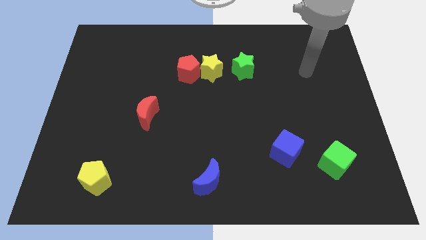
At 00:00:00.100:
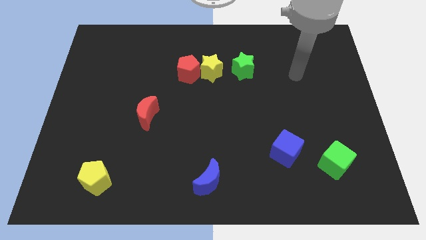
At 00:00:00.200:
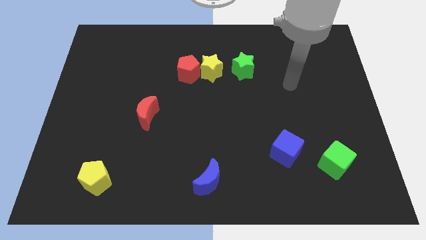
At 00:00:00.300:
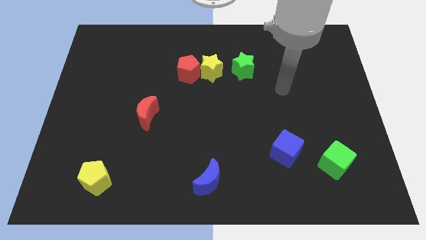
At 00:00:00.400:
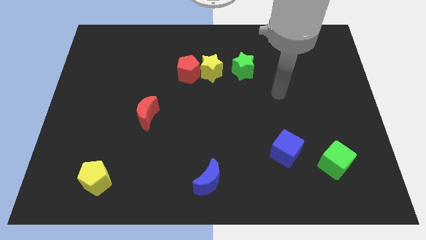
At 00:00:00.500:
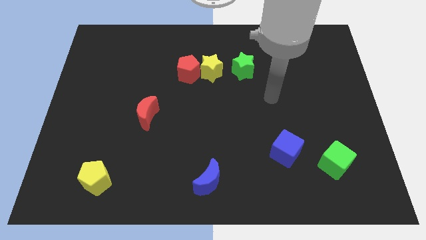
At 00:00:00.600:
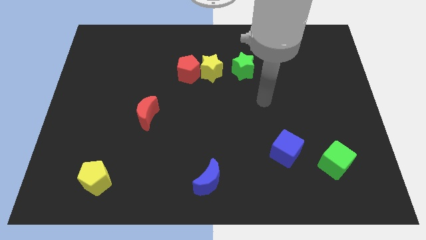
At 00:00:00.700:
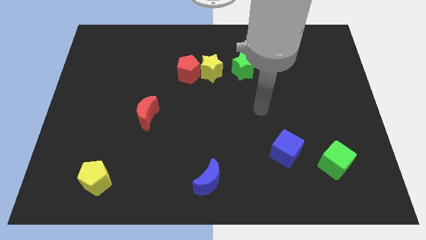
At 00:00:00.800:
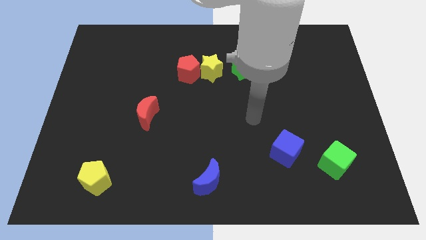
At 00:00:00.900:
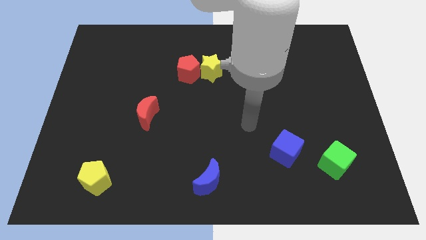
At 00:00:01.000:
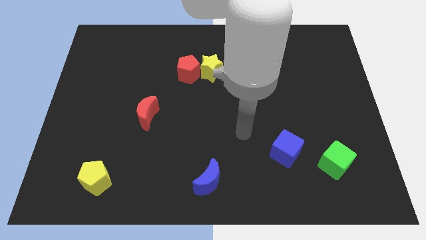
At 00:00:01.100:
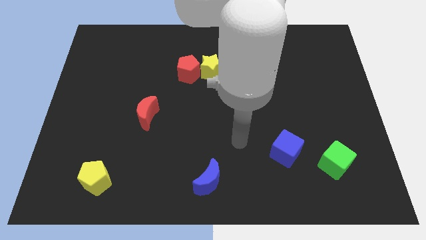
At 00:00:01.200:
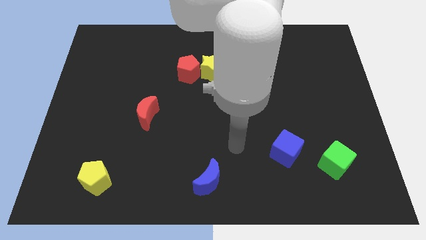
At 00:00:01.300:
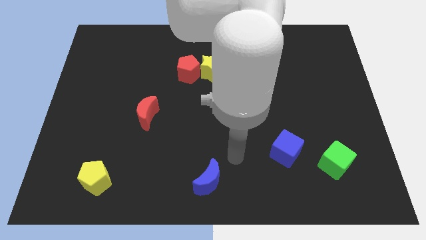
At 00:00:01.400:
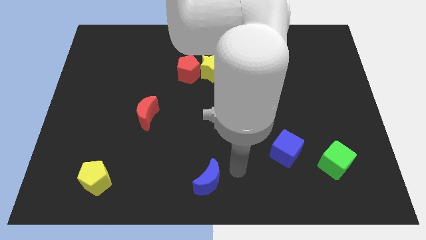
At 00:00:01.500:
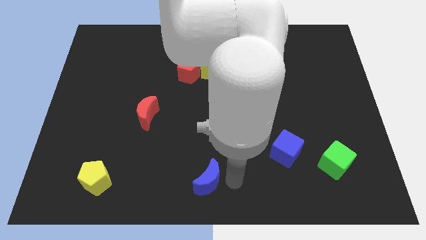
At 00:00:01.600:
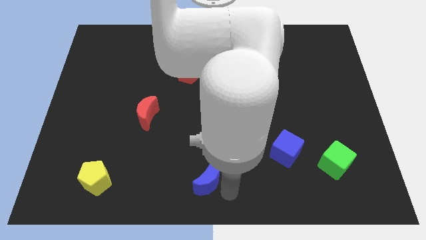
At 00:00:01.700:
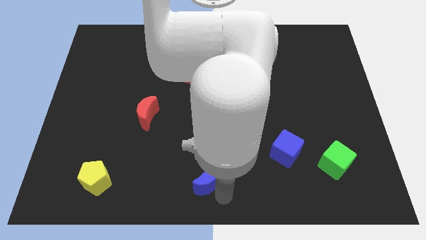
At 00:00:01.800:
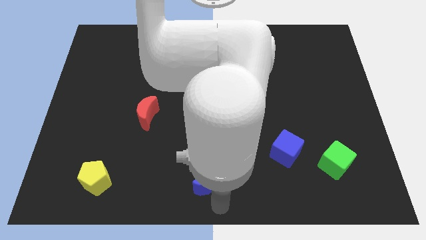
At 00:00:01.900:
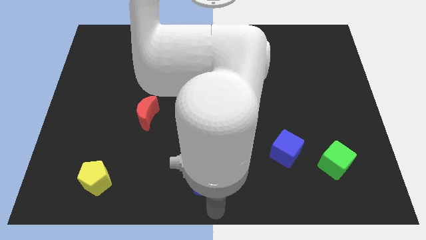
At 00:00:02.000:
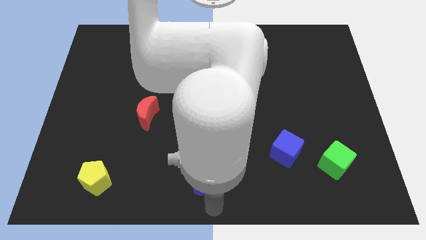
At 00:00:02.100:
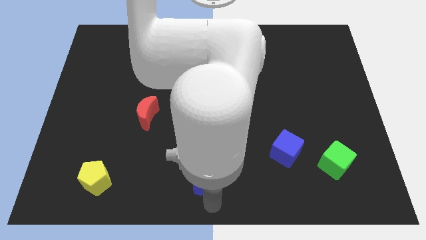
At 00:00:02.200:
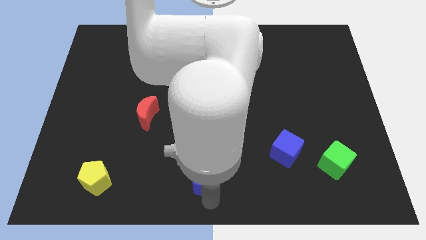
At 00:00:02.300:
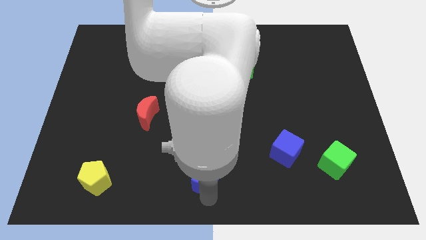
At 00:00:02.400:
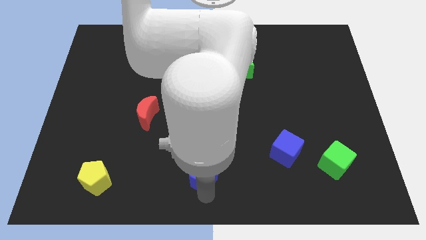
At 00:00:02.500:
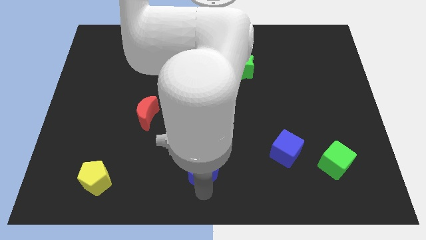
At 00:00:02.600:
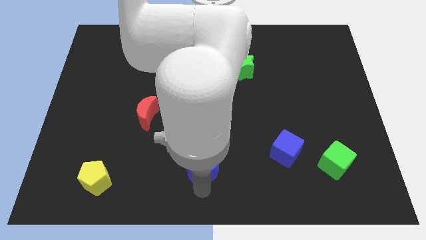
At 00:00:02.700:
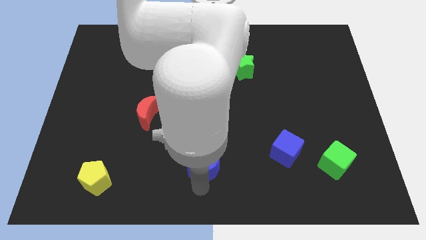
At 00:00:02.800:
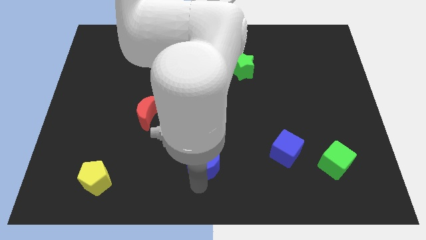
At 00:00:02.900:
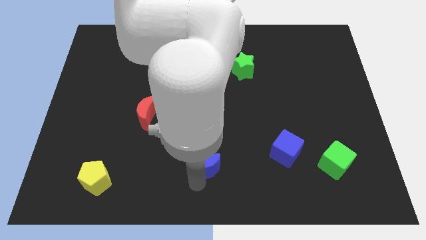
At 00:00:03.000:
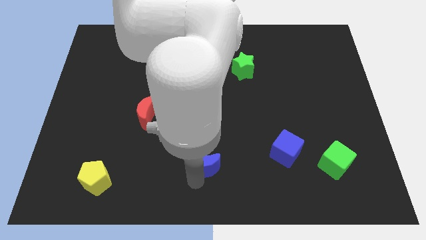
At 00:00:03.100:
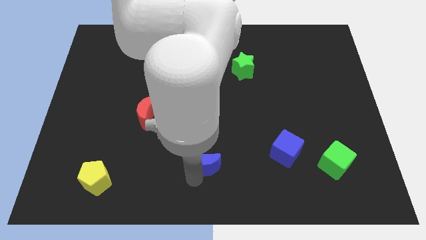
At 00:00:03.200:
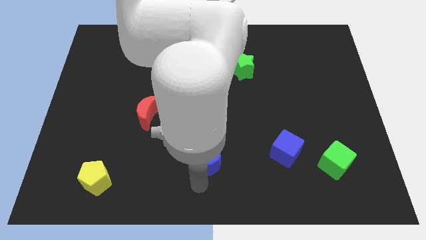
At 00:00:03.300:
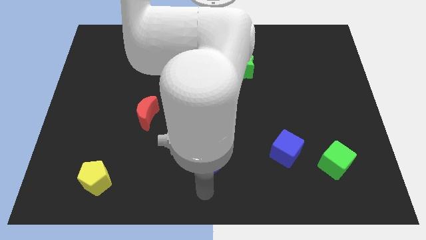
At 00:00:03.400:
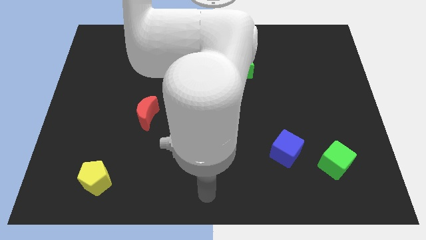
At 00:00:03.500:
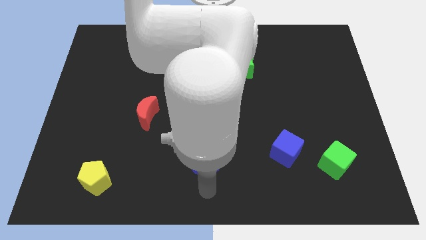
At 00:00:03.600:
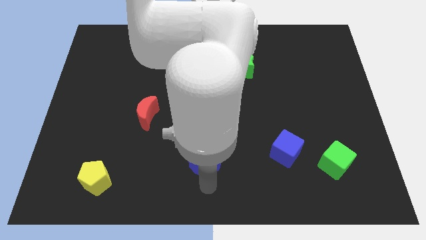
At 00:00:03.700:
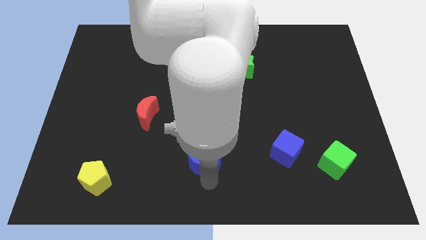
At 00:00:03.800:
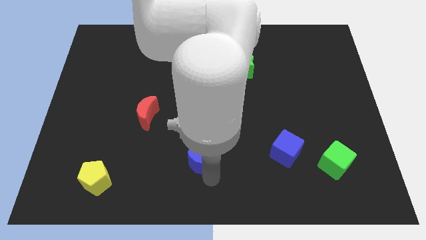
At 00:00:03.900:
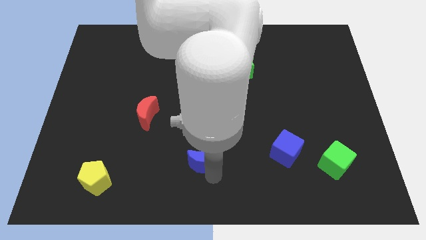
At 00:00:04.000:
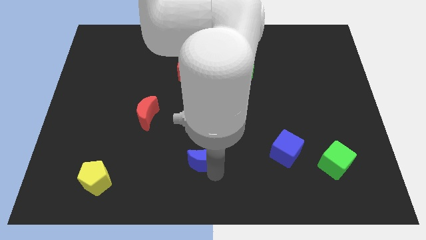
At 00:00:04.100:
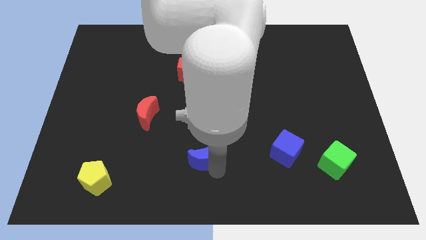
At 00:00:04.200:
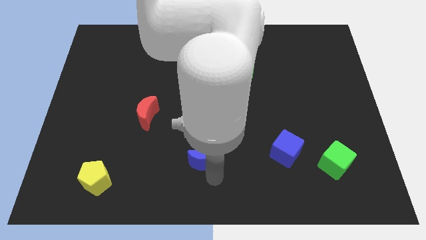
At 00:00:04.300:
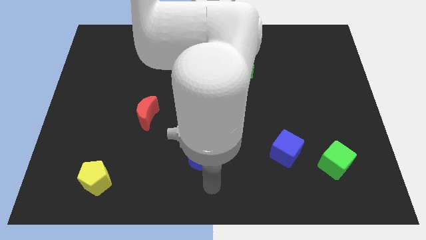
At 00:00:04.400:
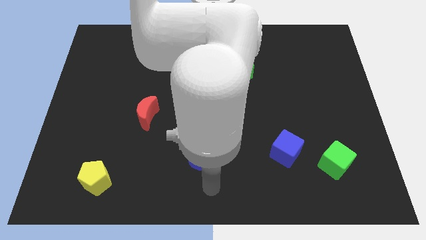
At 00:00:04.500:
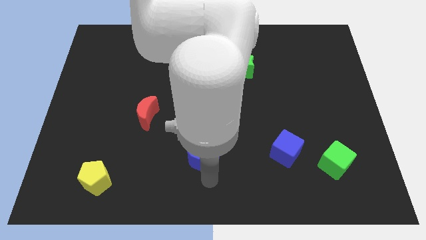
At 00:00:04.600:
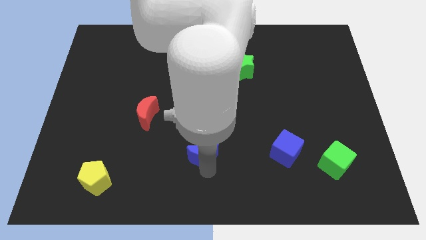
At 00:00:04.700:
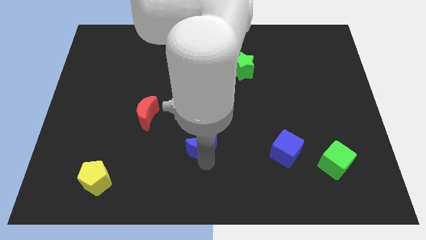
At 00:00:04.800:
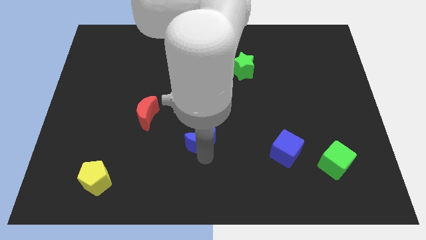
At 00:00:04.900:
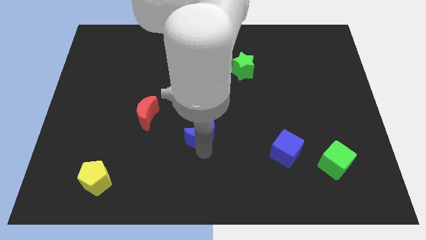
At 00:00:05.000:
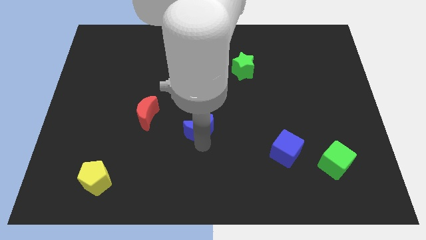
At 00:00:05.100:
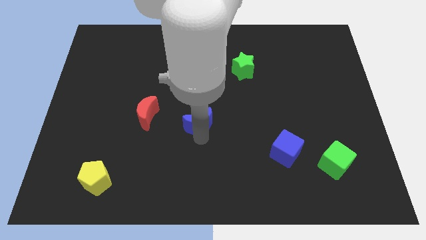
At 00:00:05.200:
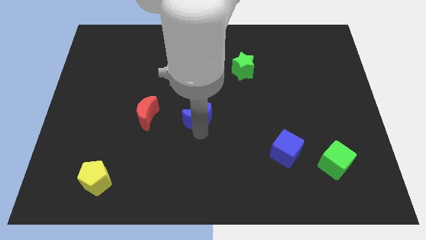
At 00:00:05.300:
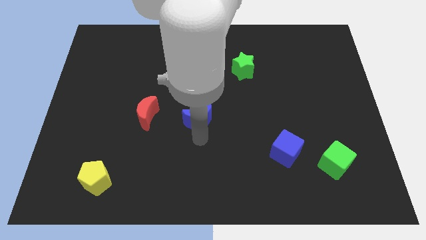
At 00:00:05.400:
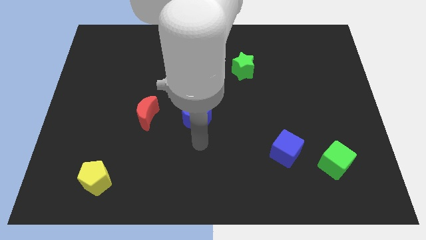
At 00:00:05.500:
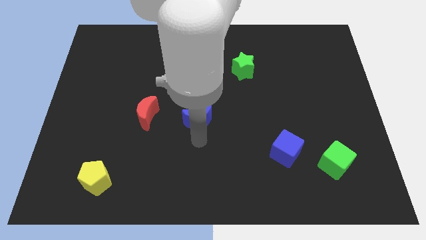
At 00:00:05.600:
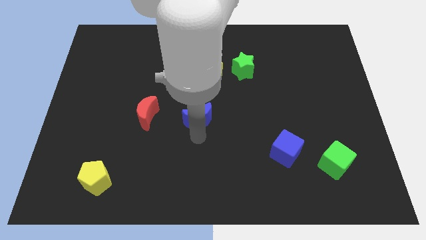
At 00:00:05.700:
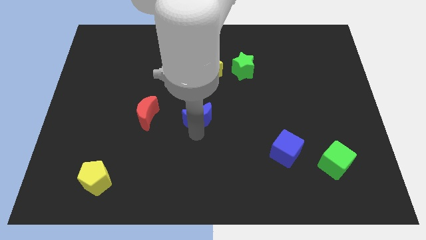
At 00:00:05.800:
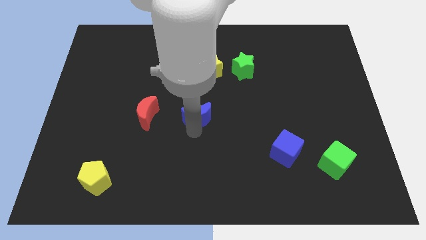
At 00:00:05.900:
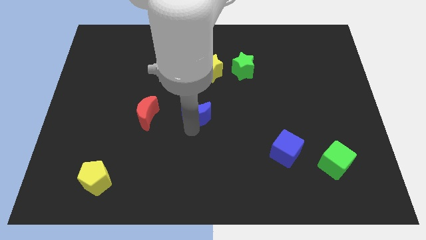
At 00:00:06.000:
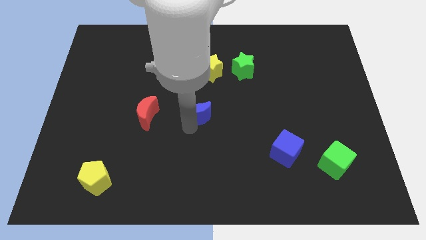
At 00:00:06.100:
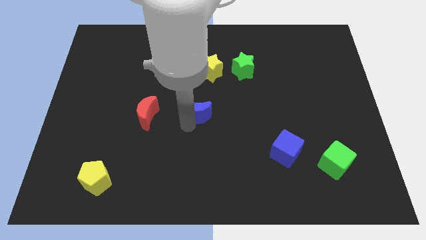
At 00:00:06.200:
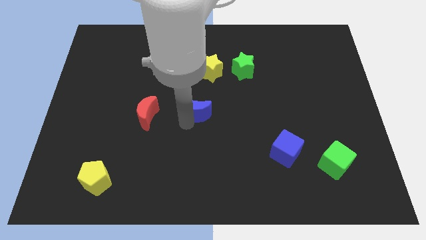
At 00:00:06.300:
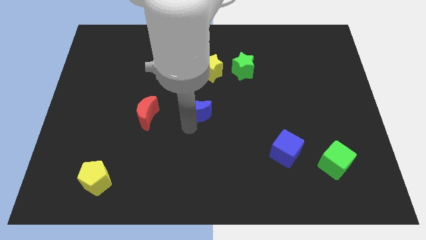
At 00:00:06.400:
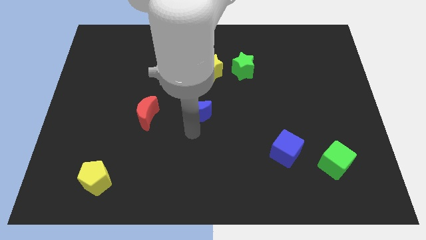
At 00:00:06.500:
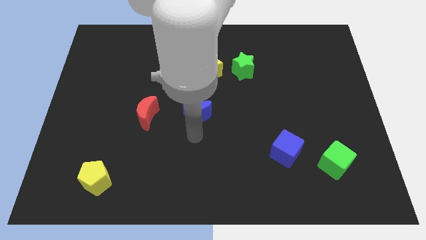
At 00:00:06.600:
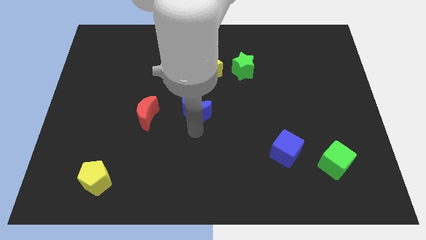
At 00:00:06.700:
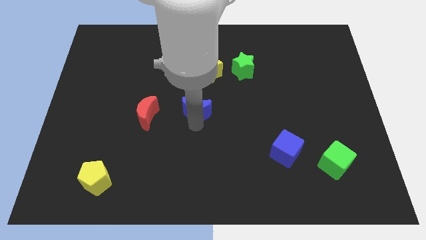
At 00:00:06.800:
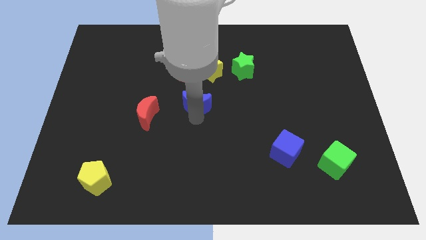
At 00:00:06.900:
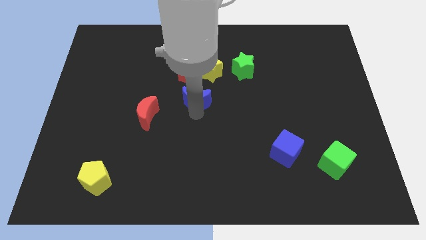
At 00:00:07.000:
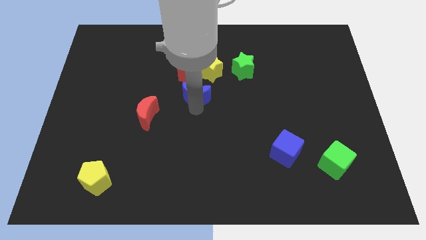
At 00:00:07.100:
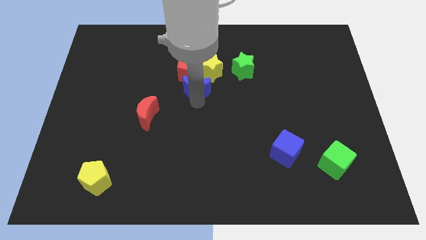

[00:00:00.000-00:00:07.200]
push the blue moon towards the red pentagon
